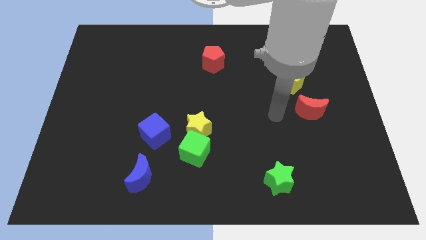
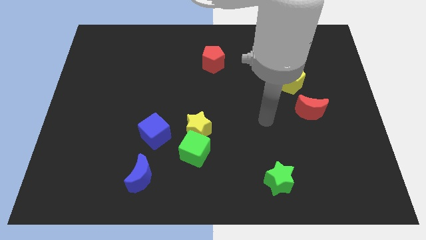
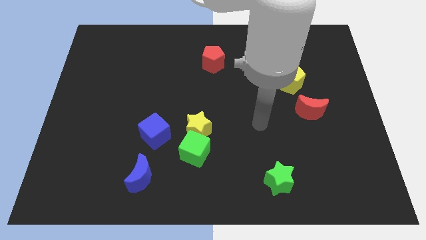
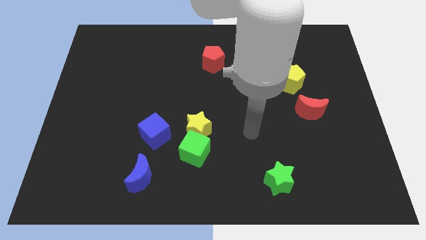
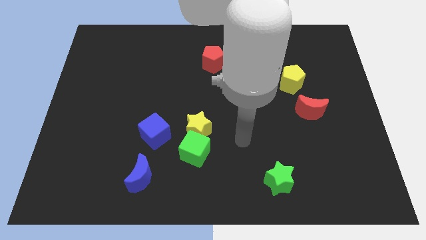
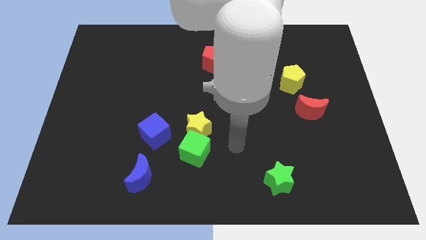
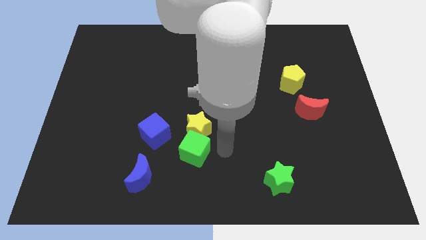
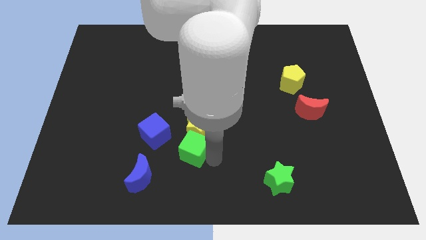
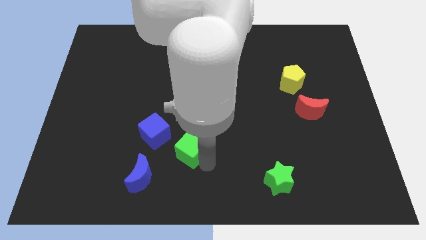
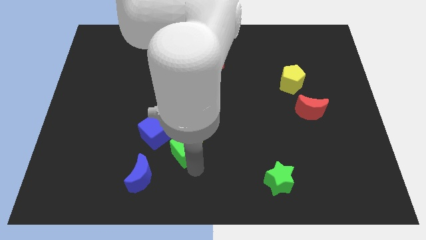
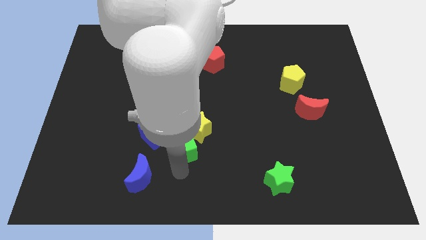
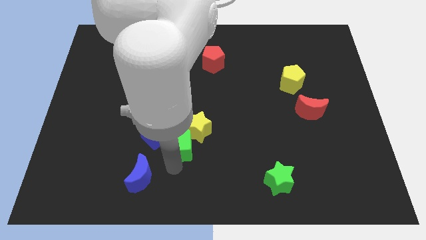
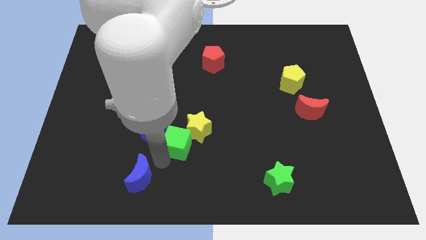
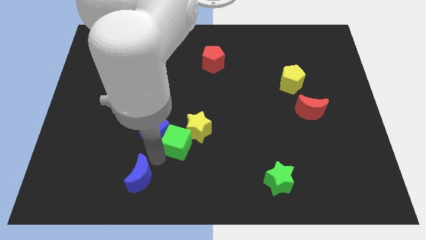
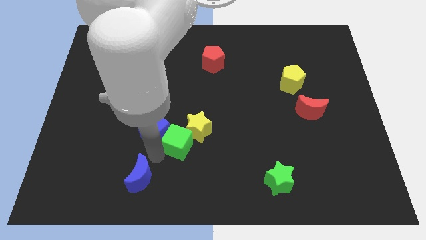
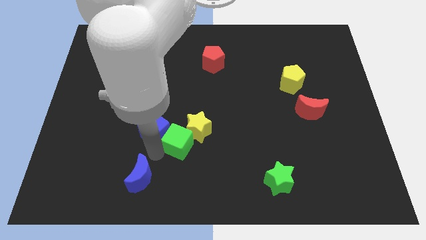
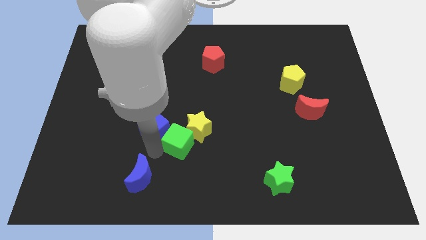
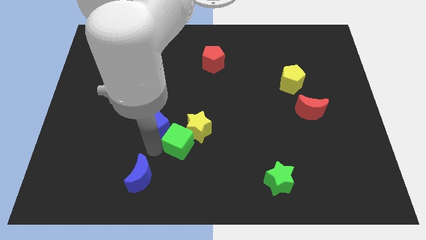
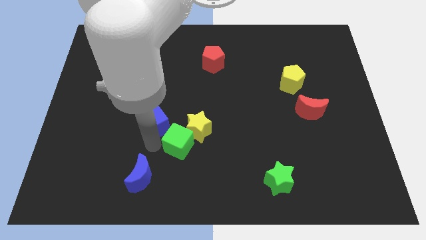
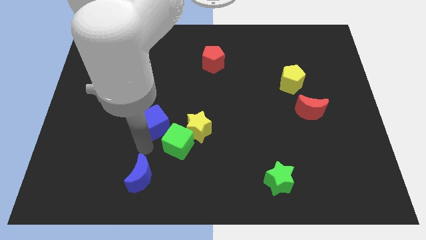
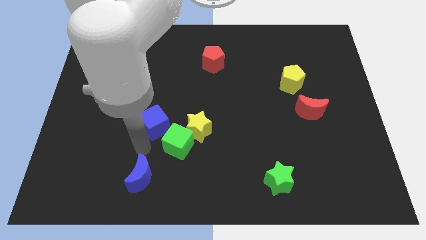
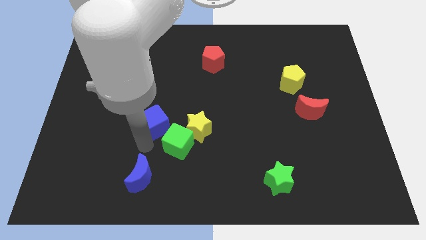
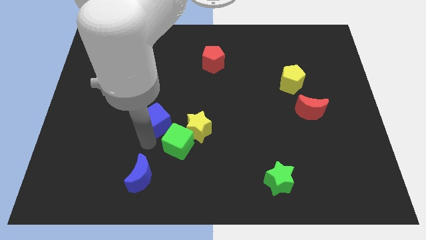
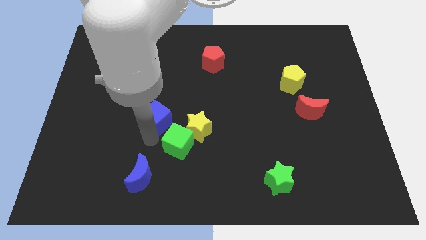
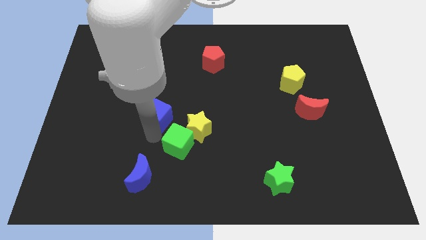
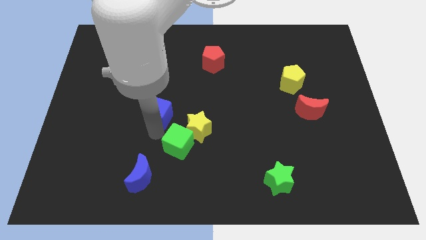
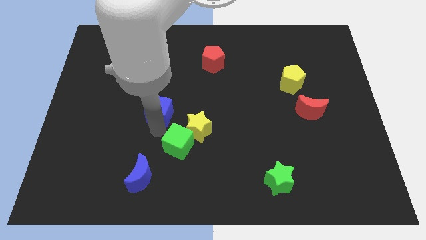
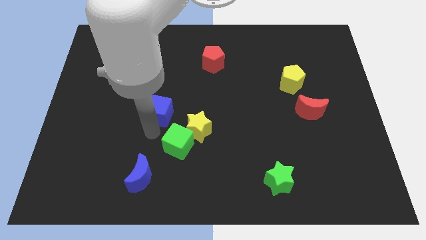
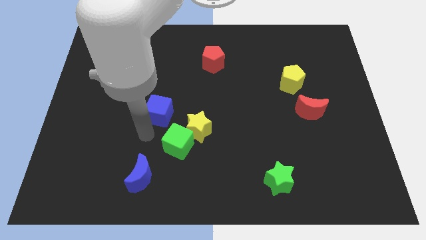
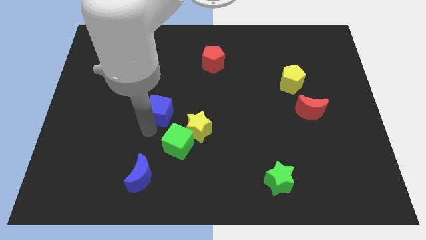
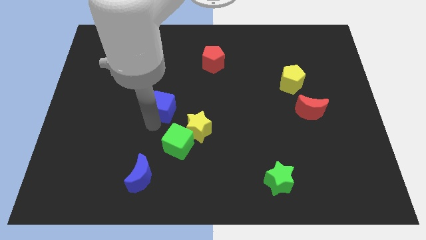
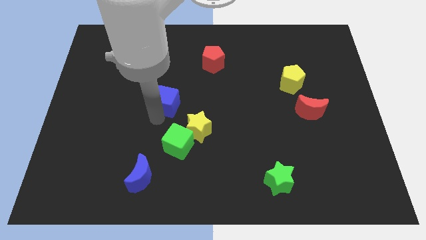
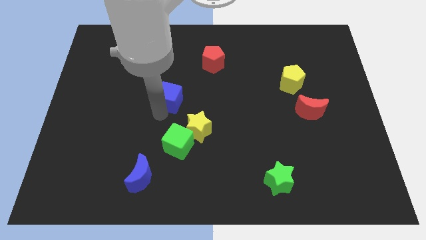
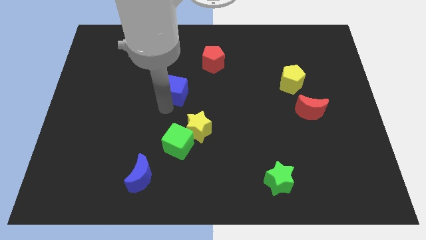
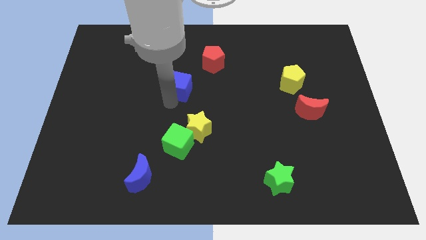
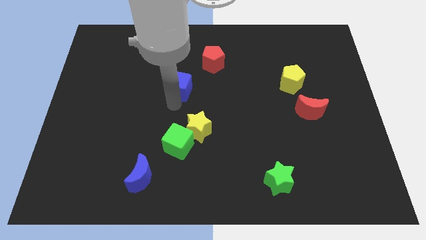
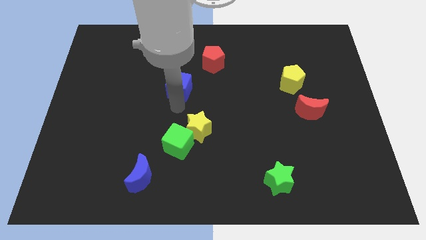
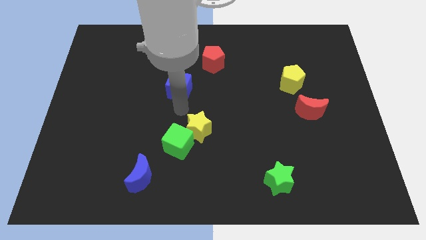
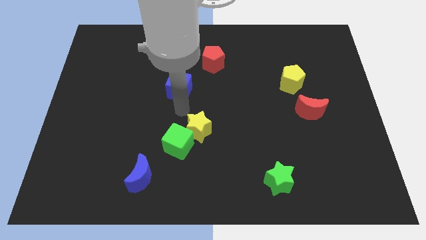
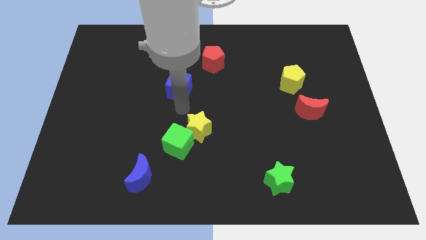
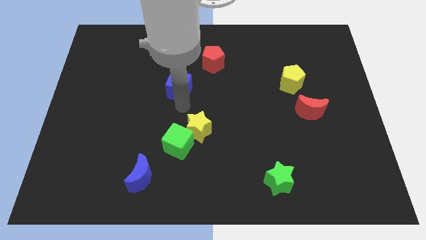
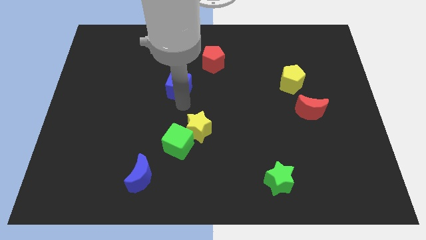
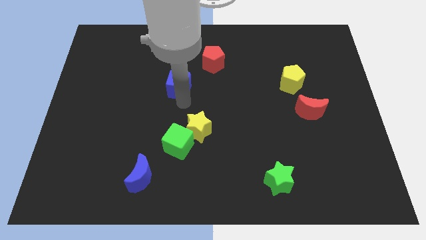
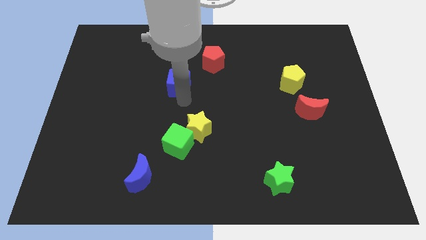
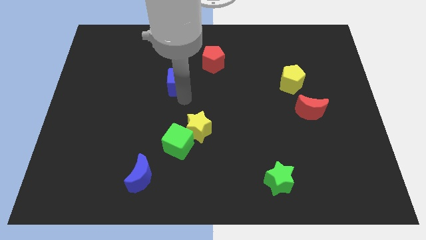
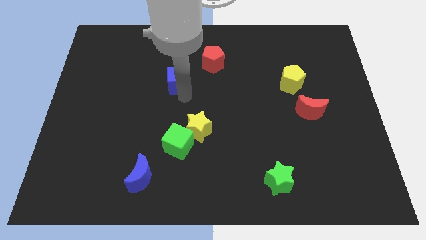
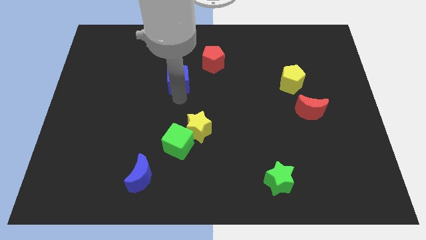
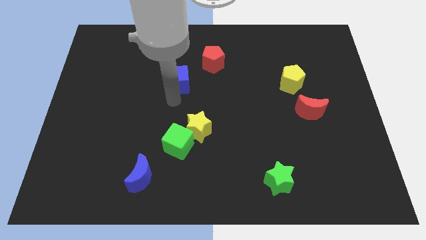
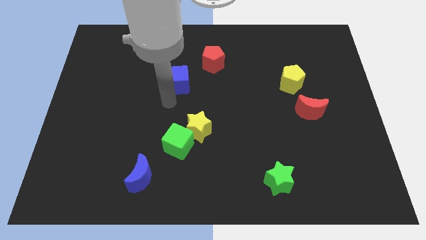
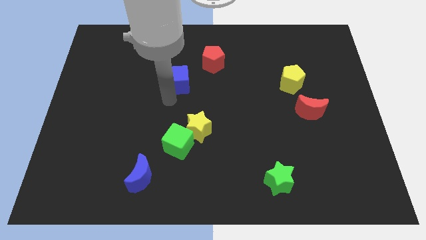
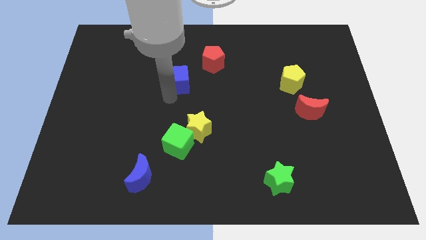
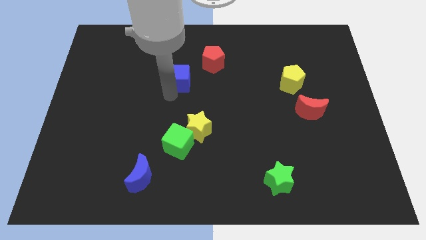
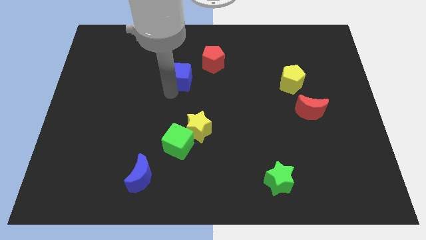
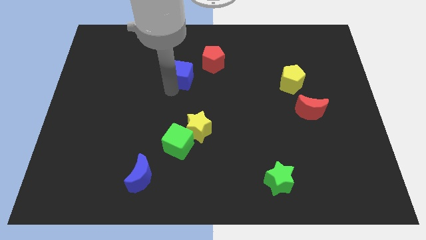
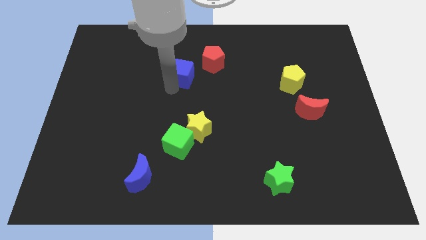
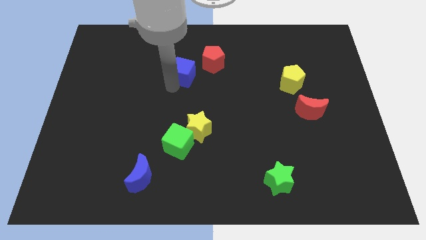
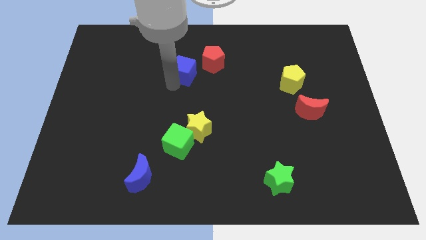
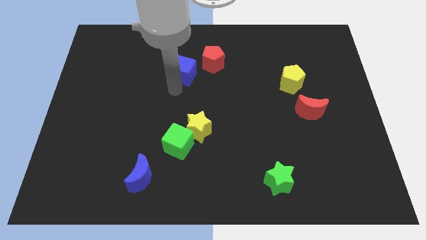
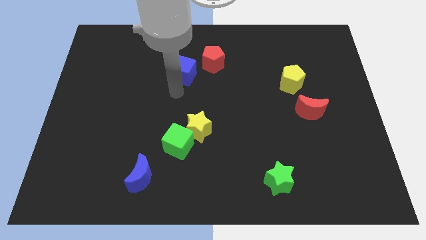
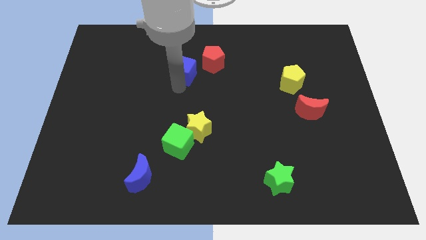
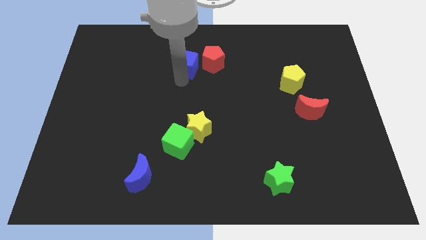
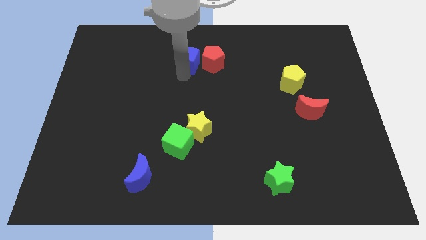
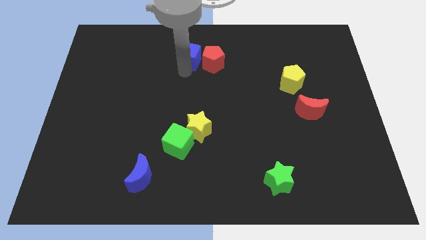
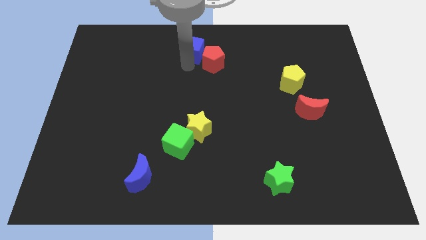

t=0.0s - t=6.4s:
move the blue cube to the top side
